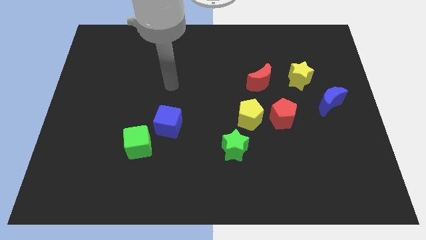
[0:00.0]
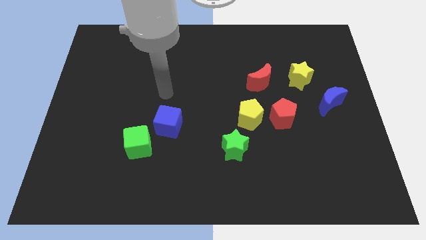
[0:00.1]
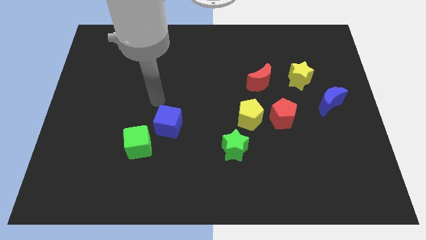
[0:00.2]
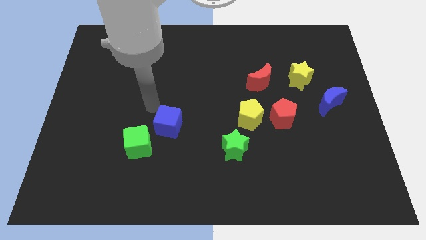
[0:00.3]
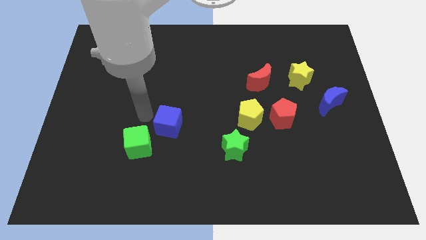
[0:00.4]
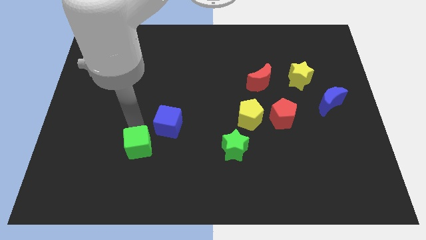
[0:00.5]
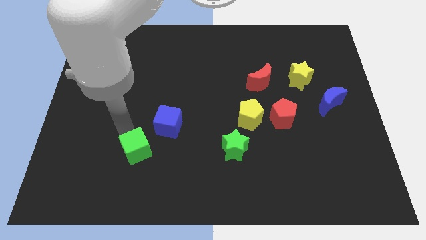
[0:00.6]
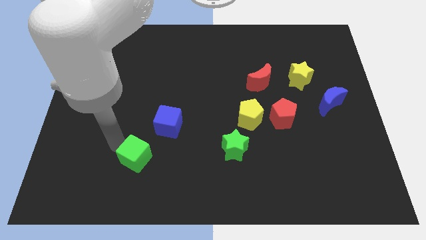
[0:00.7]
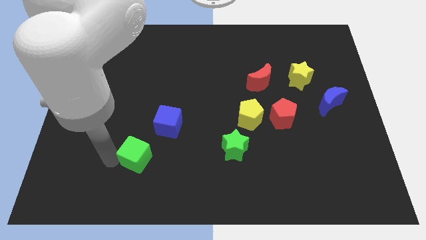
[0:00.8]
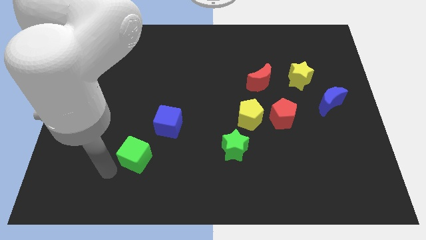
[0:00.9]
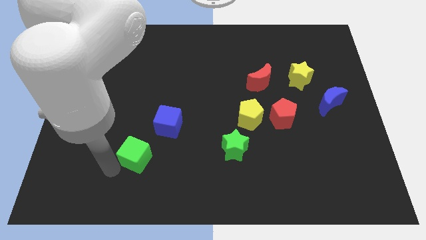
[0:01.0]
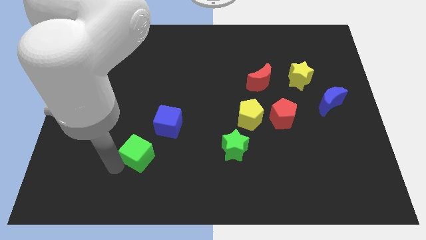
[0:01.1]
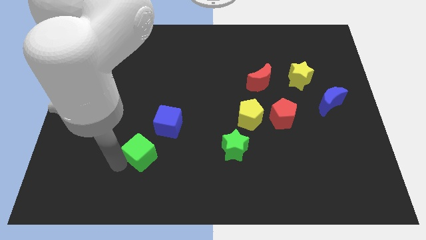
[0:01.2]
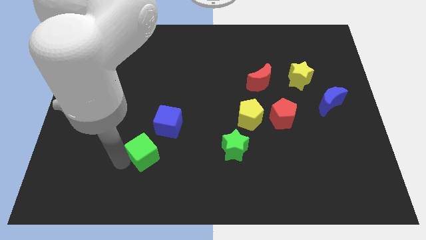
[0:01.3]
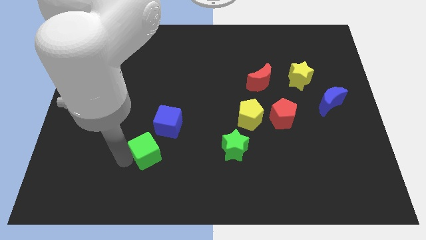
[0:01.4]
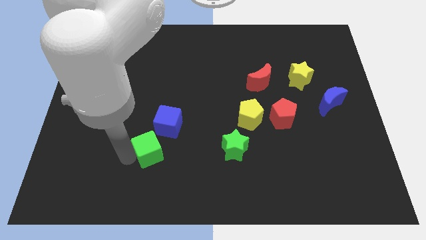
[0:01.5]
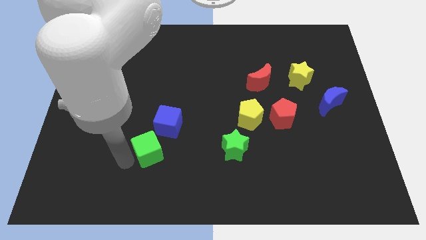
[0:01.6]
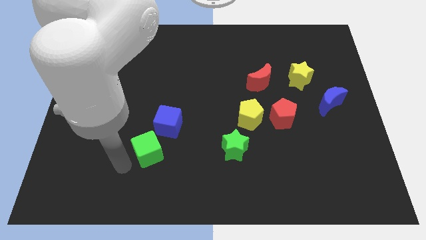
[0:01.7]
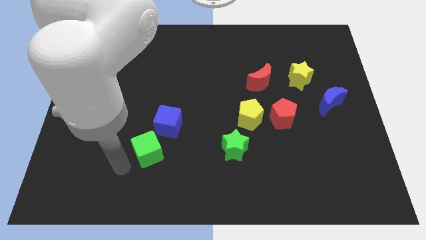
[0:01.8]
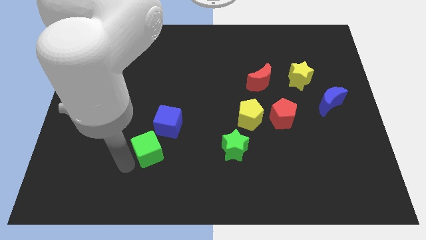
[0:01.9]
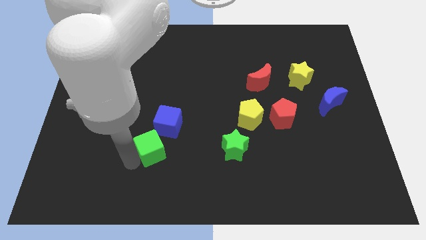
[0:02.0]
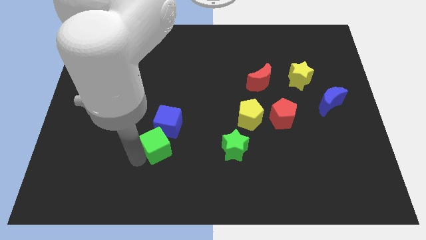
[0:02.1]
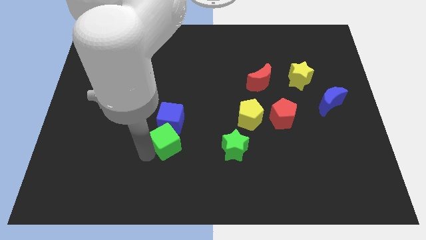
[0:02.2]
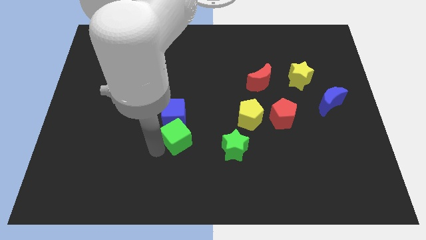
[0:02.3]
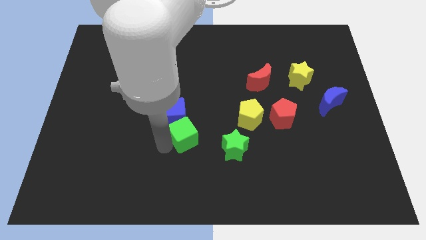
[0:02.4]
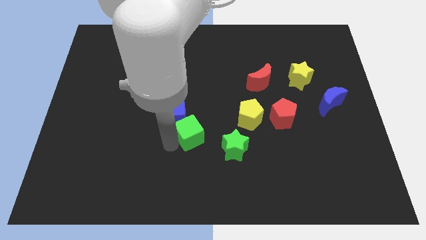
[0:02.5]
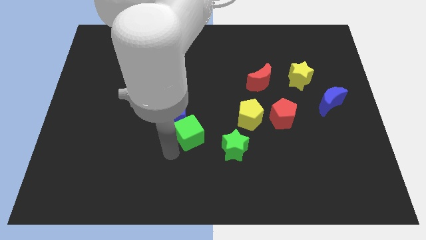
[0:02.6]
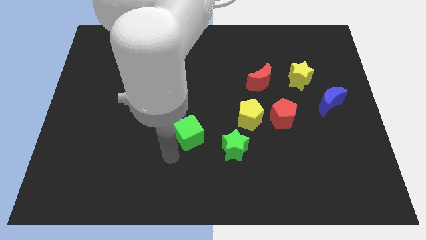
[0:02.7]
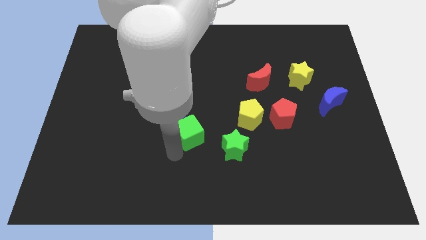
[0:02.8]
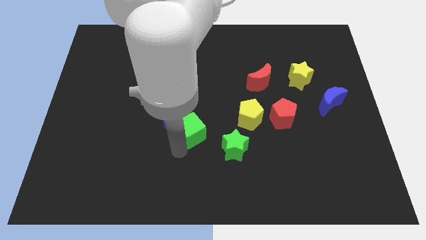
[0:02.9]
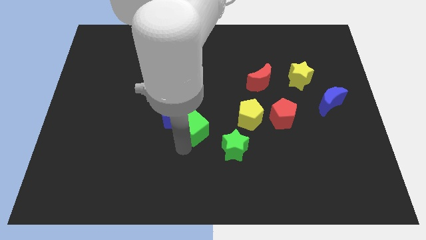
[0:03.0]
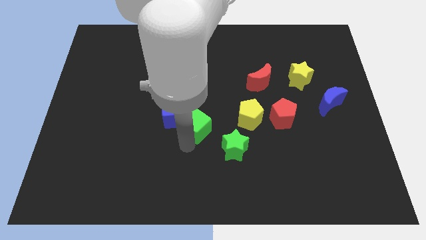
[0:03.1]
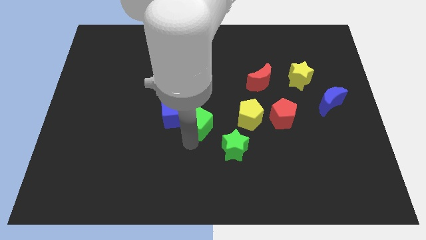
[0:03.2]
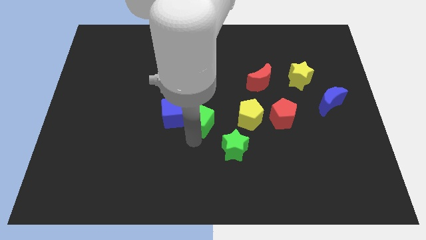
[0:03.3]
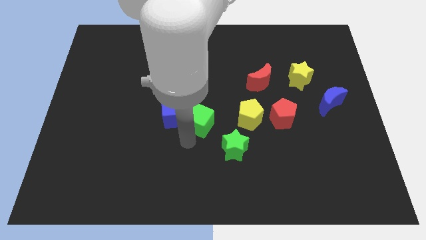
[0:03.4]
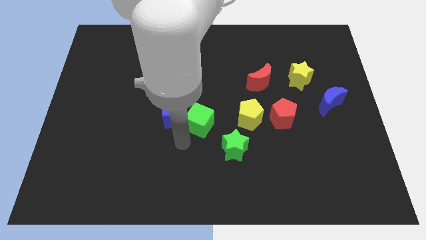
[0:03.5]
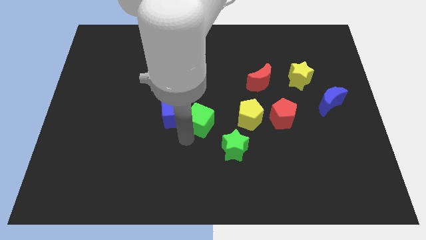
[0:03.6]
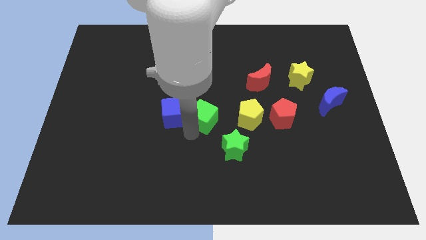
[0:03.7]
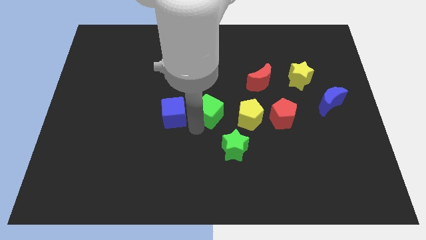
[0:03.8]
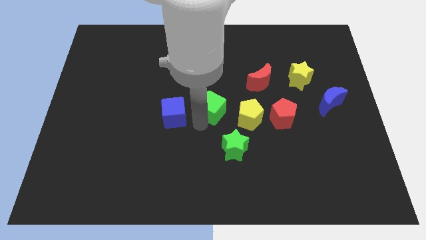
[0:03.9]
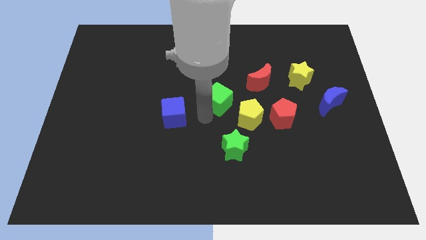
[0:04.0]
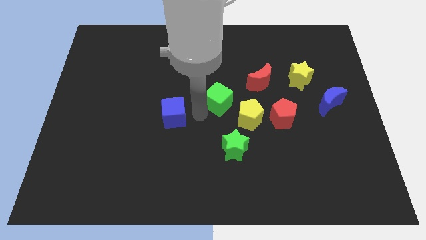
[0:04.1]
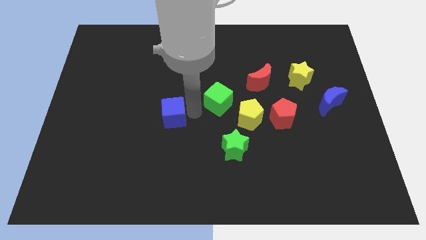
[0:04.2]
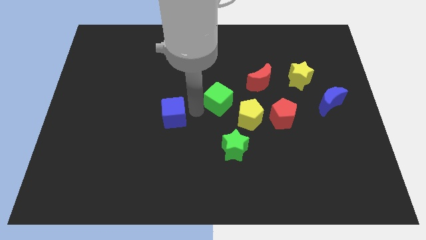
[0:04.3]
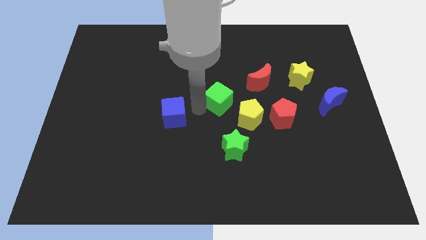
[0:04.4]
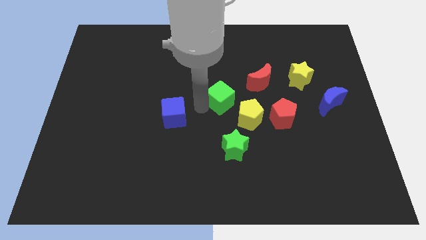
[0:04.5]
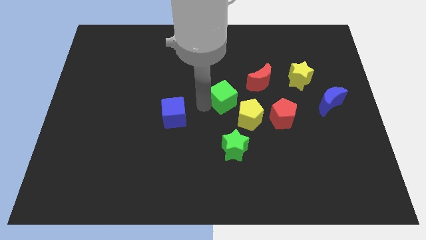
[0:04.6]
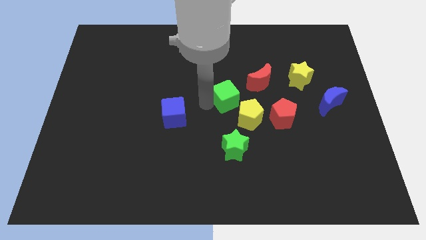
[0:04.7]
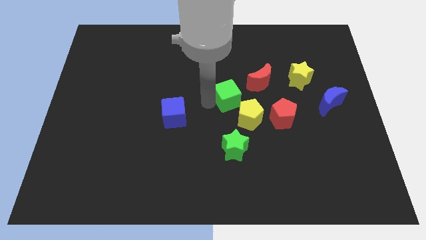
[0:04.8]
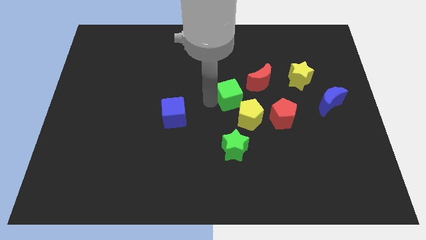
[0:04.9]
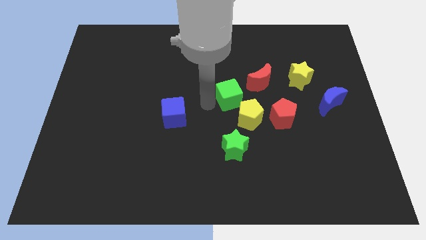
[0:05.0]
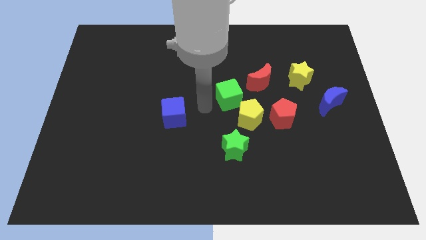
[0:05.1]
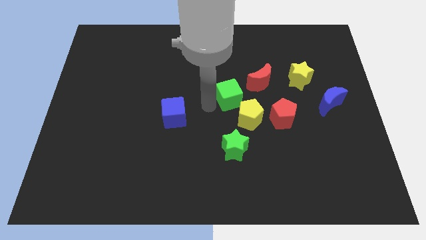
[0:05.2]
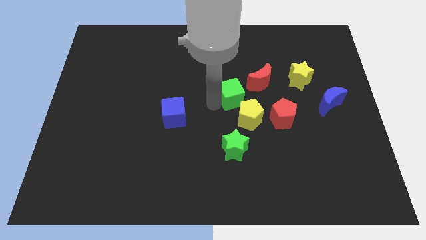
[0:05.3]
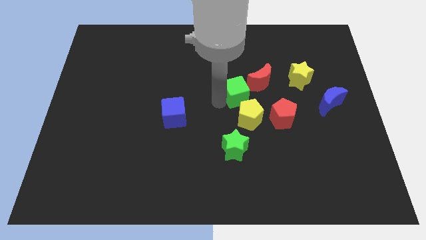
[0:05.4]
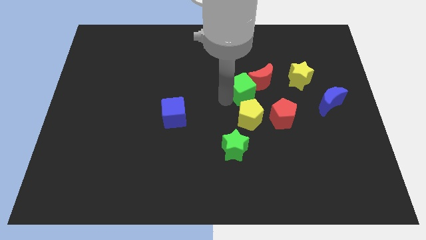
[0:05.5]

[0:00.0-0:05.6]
slide the green cube towards the red moon

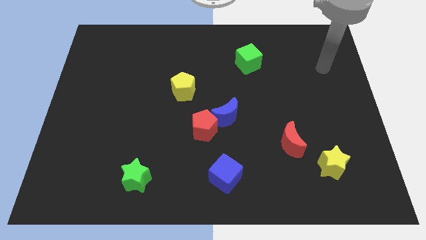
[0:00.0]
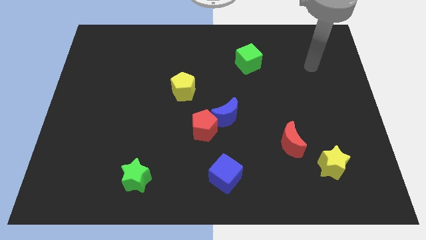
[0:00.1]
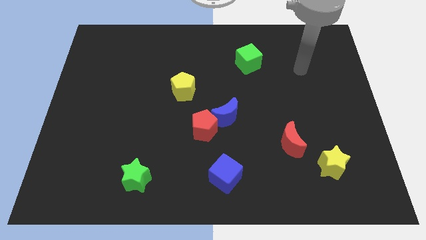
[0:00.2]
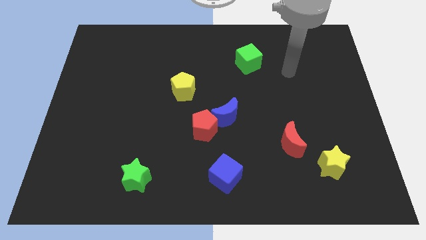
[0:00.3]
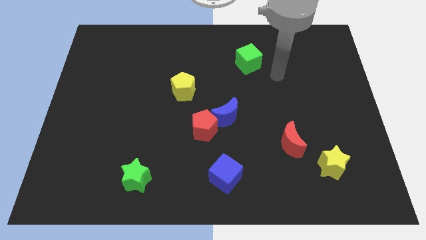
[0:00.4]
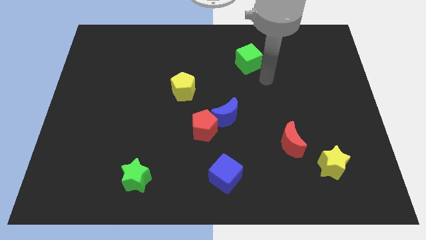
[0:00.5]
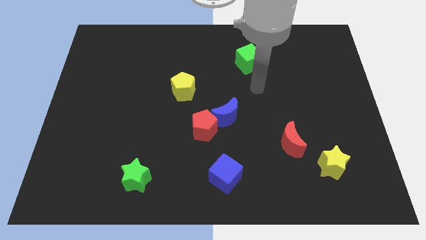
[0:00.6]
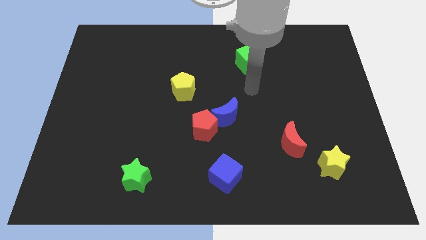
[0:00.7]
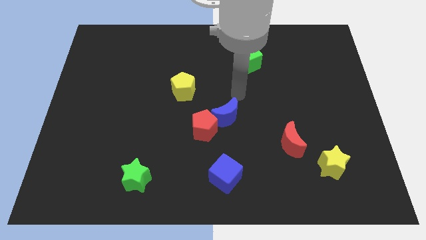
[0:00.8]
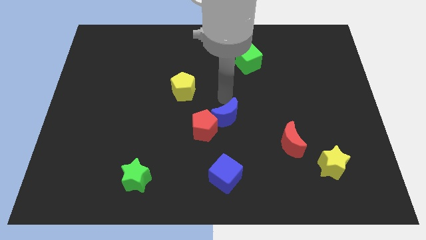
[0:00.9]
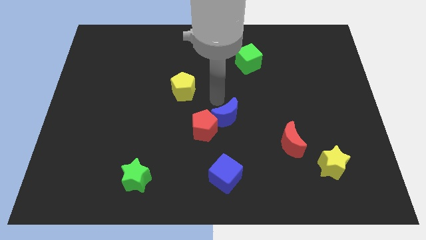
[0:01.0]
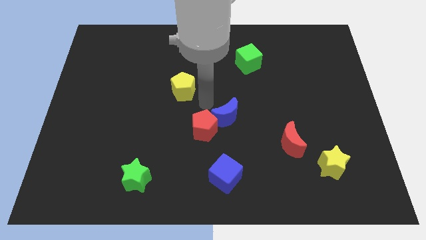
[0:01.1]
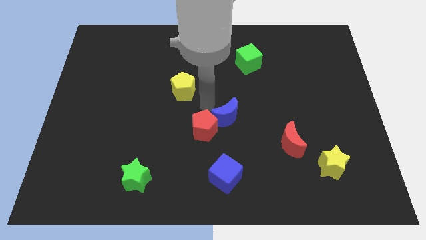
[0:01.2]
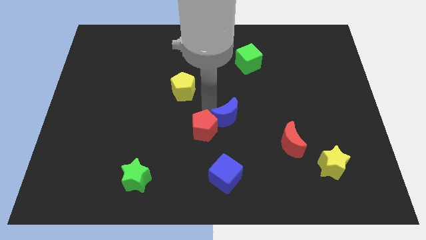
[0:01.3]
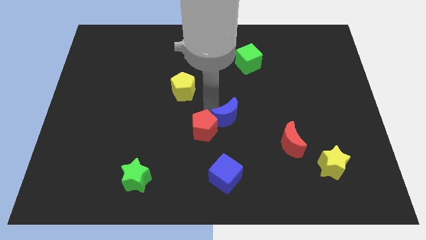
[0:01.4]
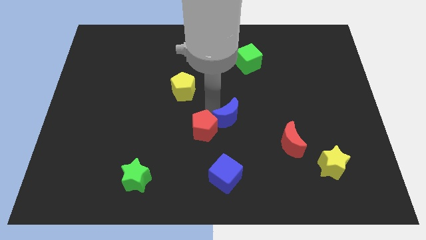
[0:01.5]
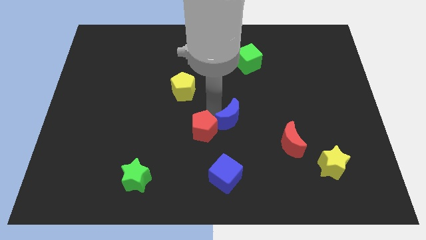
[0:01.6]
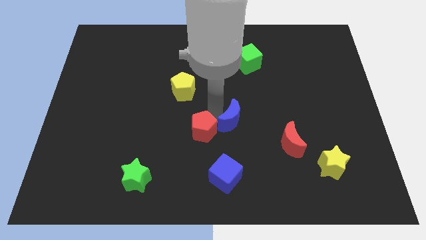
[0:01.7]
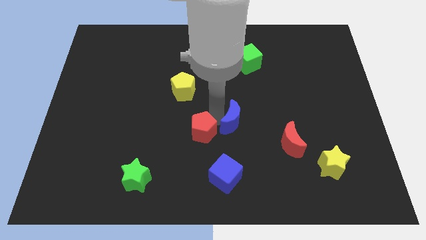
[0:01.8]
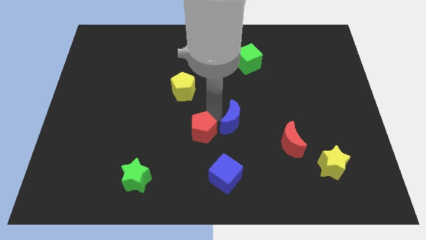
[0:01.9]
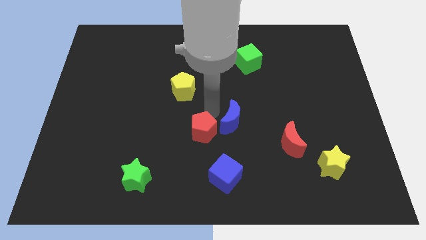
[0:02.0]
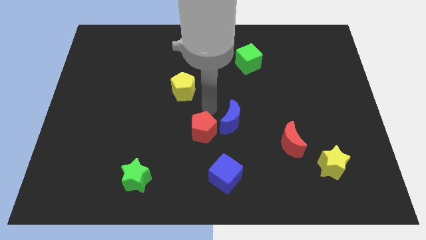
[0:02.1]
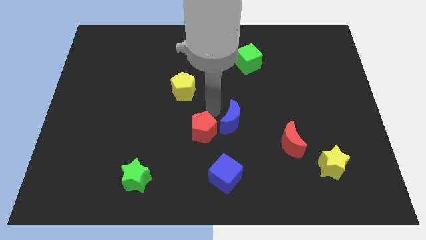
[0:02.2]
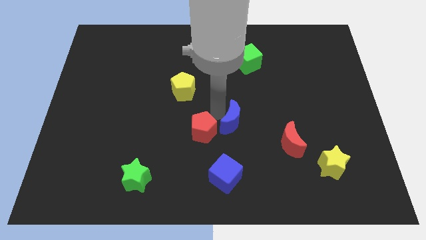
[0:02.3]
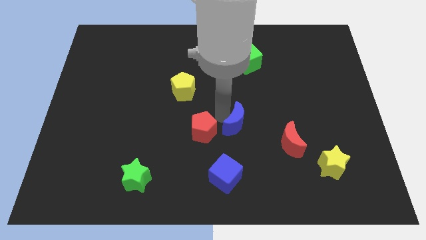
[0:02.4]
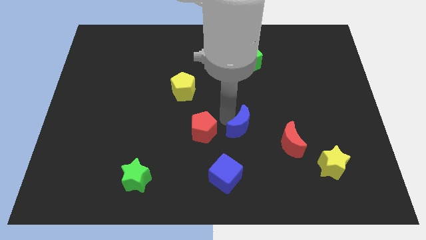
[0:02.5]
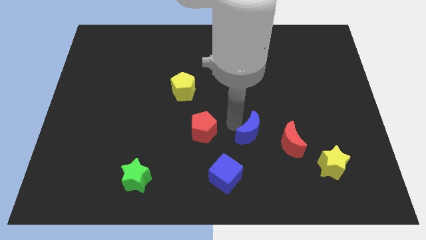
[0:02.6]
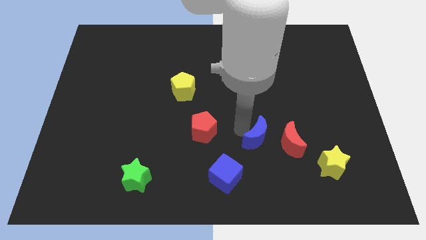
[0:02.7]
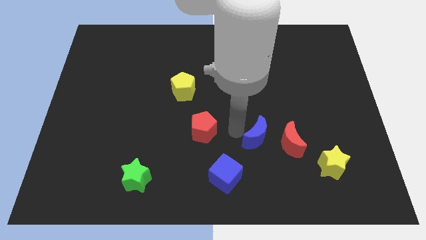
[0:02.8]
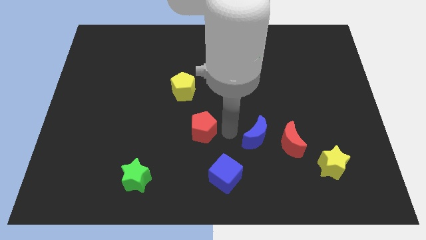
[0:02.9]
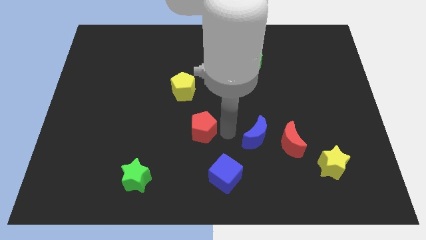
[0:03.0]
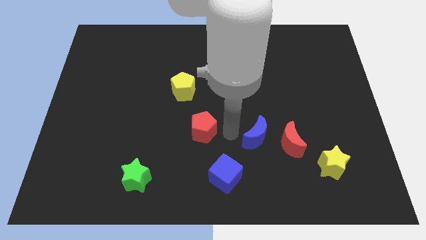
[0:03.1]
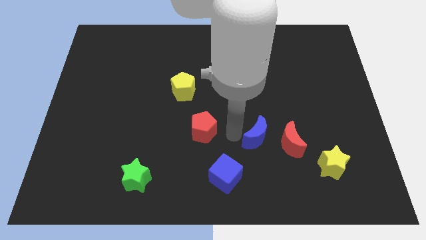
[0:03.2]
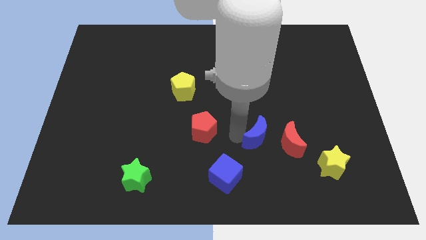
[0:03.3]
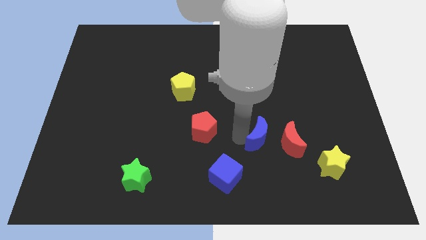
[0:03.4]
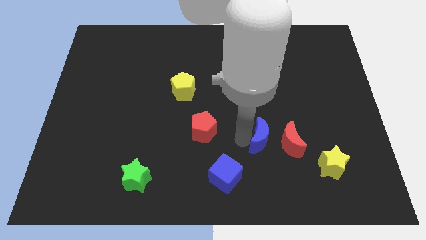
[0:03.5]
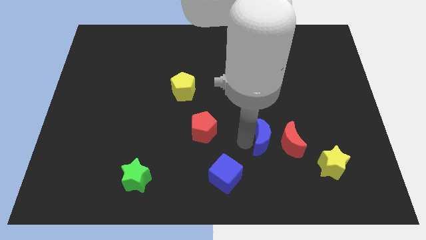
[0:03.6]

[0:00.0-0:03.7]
move the blue moon towards the red moon
